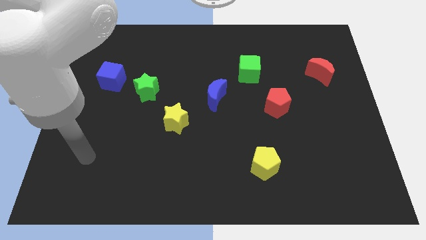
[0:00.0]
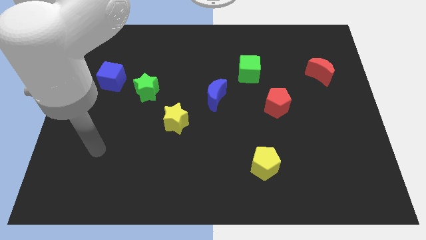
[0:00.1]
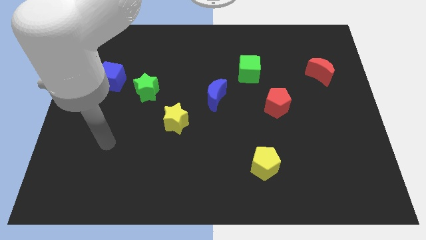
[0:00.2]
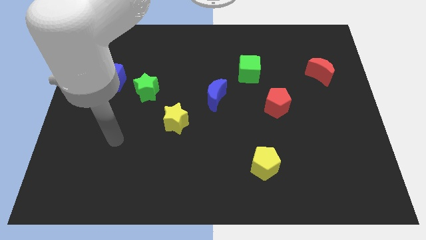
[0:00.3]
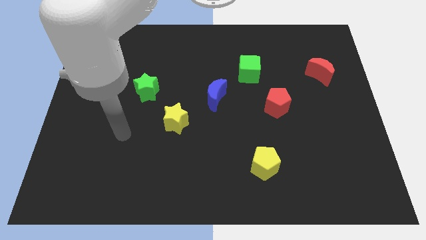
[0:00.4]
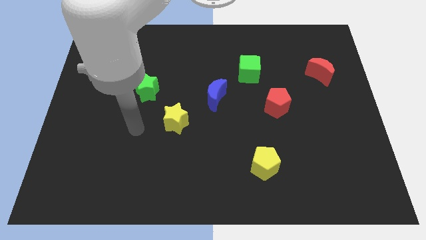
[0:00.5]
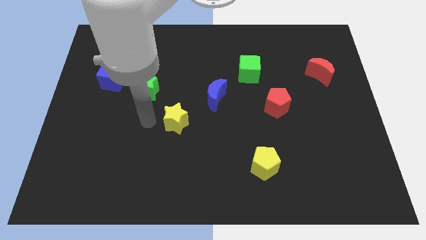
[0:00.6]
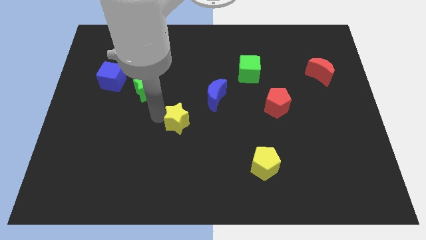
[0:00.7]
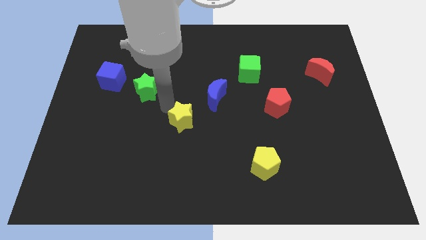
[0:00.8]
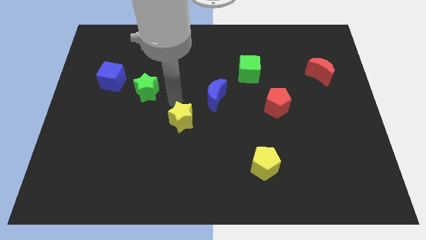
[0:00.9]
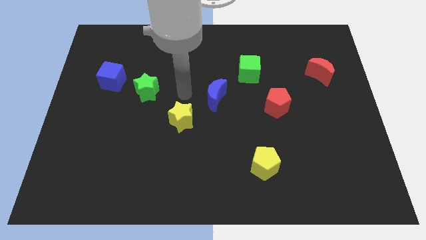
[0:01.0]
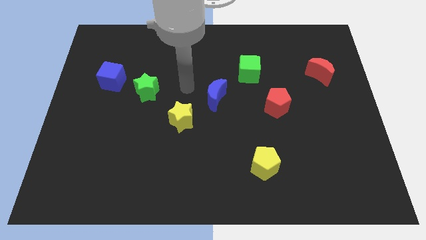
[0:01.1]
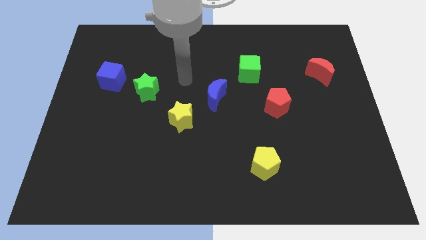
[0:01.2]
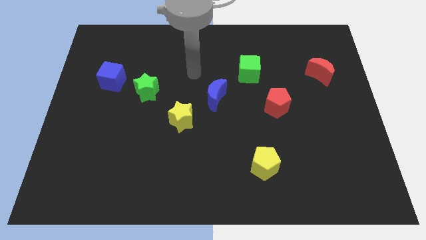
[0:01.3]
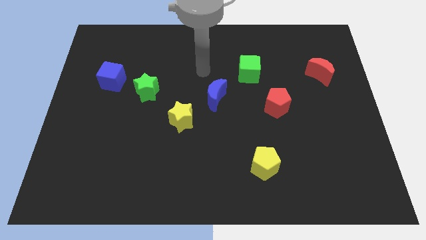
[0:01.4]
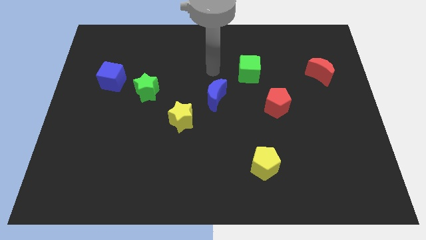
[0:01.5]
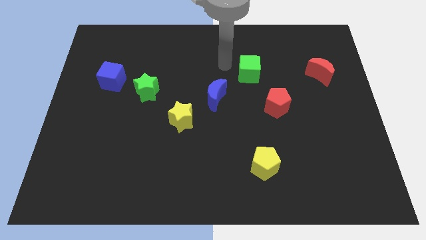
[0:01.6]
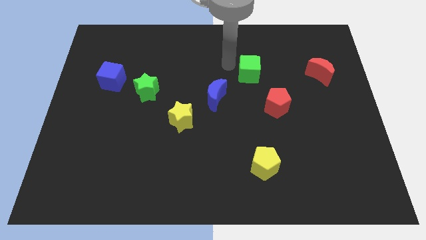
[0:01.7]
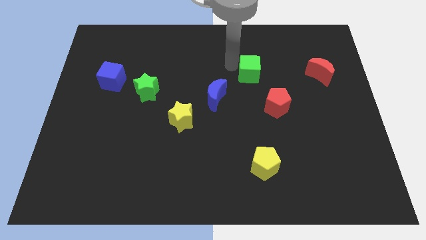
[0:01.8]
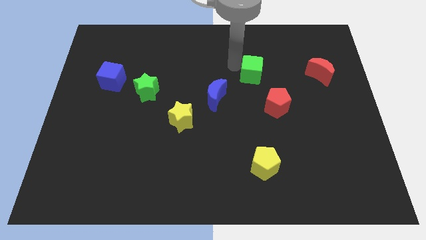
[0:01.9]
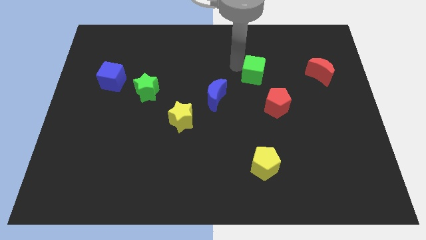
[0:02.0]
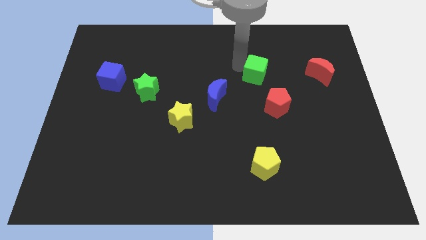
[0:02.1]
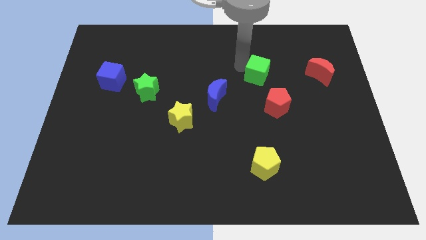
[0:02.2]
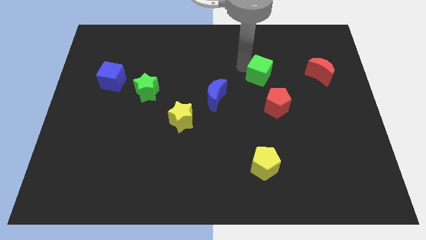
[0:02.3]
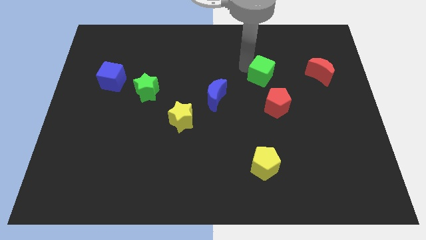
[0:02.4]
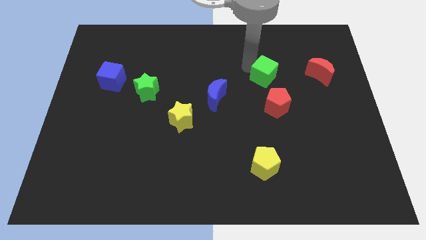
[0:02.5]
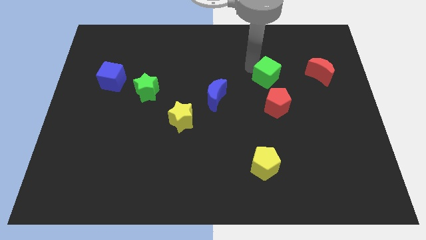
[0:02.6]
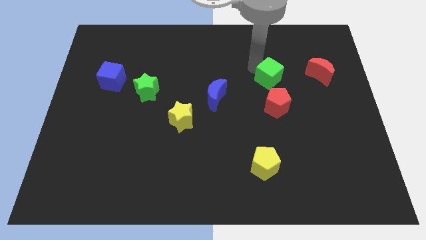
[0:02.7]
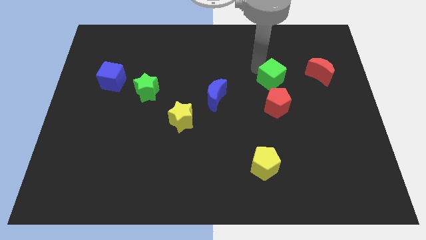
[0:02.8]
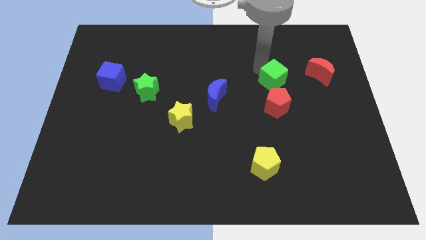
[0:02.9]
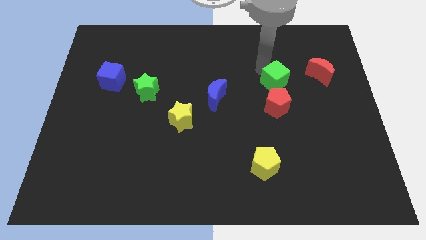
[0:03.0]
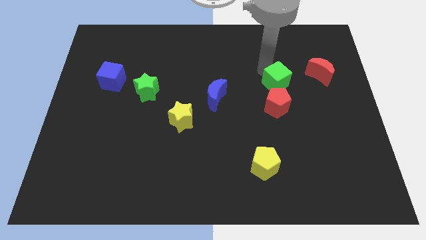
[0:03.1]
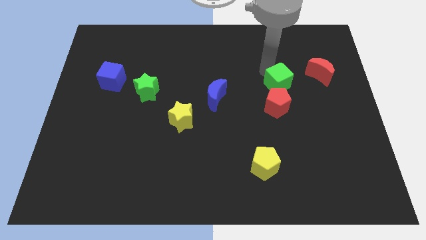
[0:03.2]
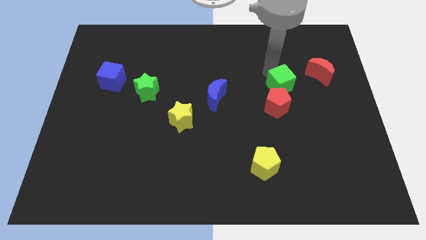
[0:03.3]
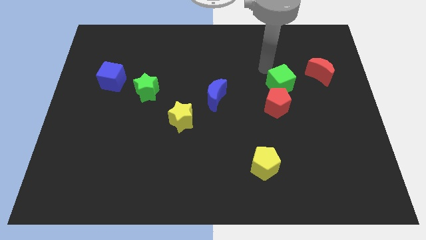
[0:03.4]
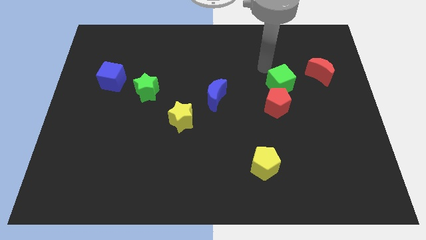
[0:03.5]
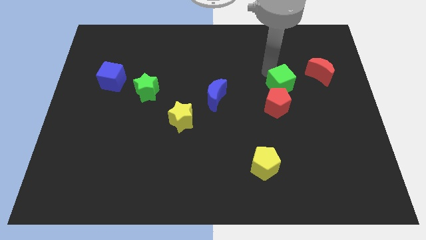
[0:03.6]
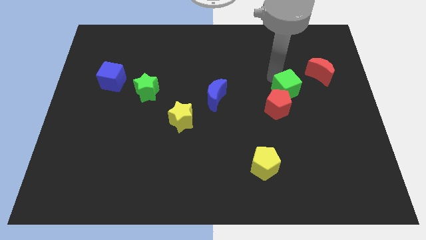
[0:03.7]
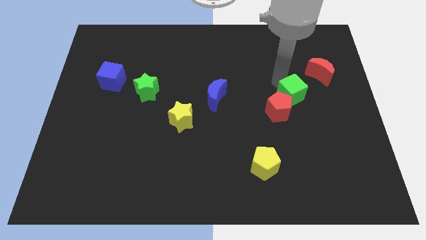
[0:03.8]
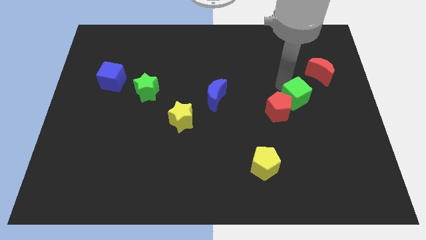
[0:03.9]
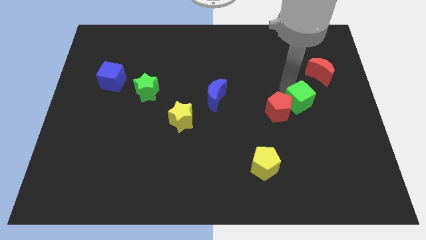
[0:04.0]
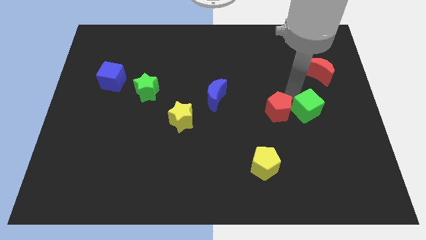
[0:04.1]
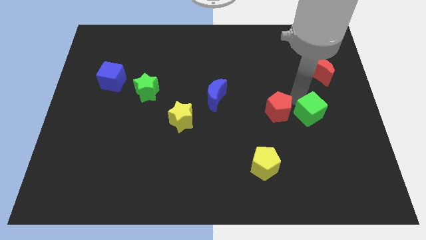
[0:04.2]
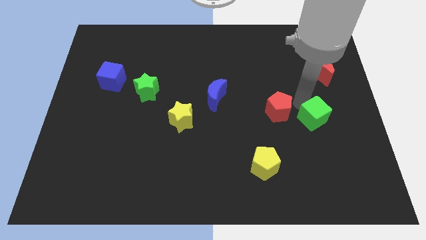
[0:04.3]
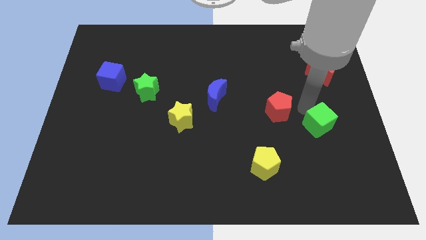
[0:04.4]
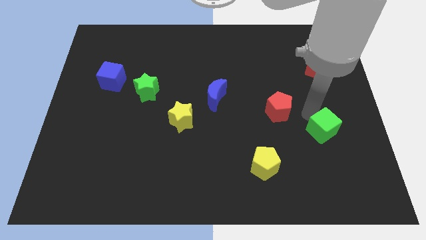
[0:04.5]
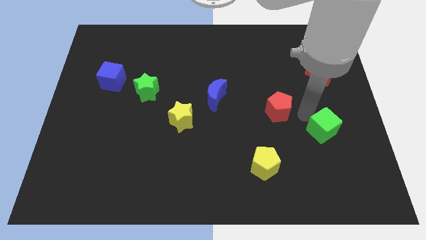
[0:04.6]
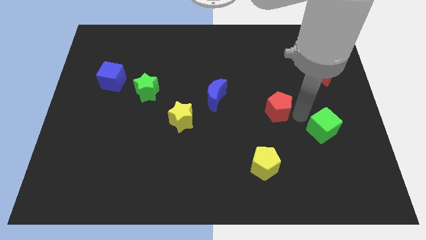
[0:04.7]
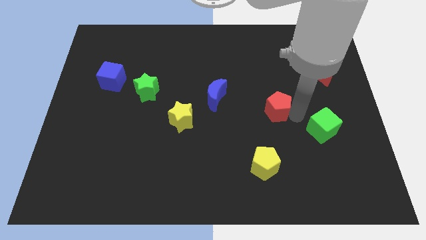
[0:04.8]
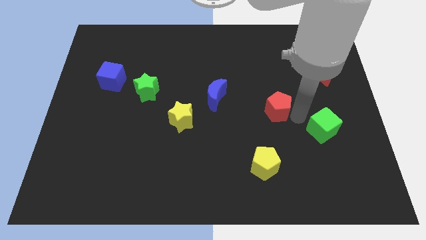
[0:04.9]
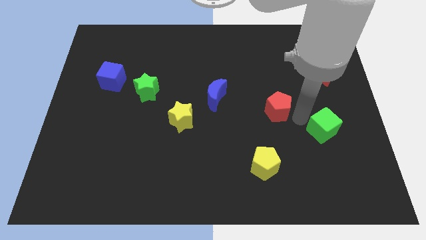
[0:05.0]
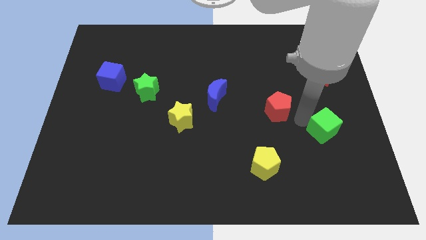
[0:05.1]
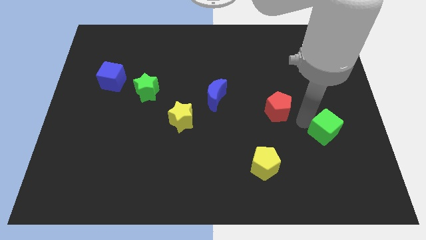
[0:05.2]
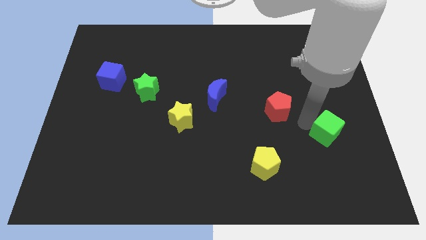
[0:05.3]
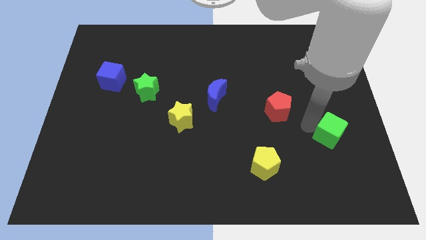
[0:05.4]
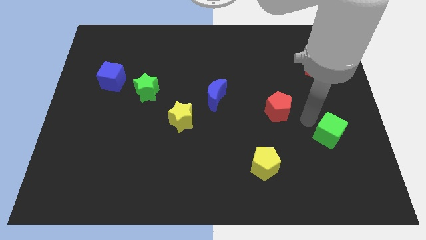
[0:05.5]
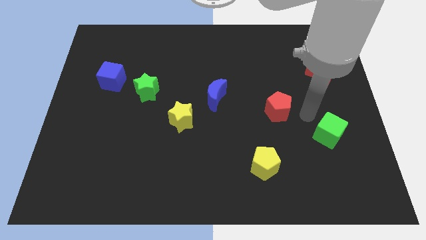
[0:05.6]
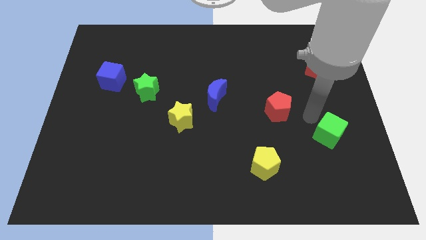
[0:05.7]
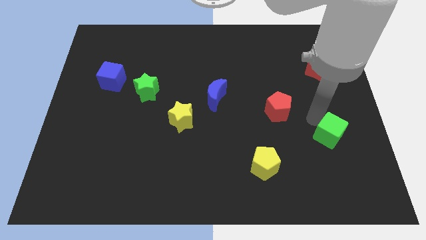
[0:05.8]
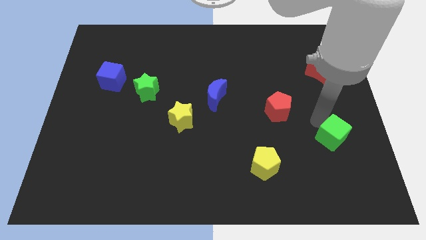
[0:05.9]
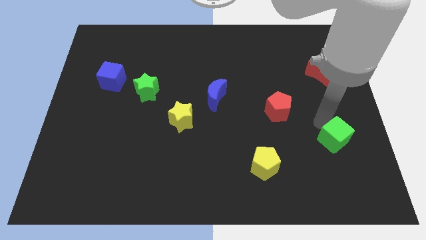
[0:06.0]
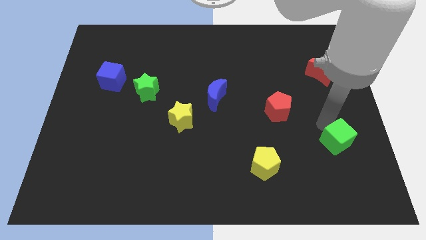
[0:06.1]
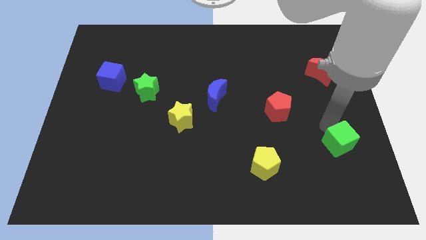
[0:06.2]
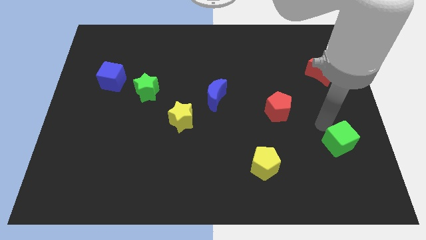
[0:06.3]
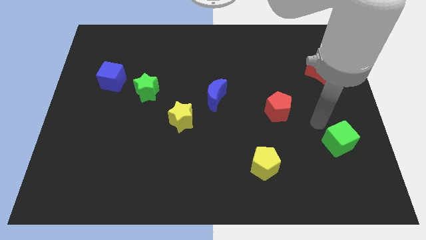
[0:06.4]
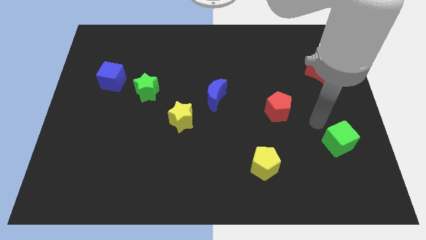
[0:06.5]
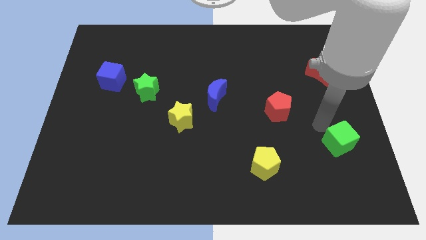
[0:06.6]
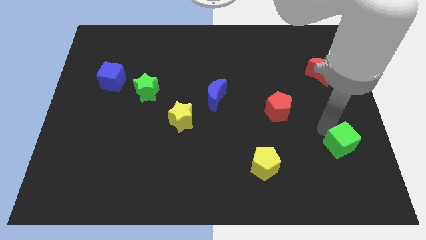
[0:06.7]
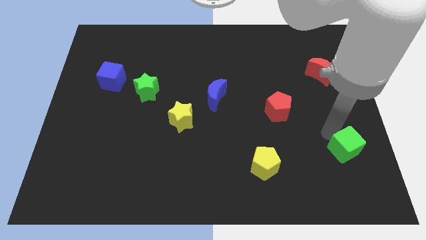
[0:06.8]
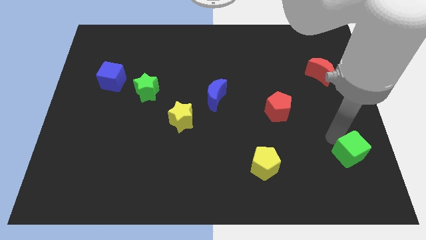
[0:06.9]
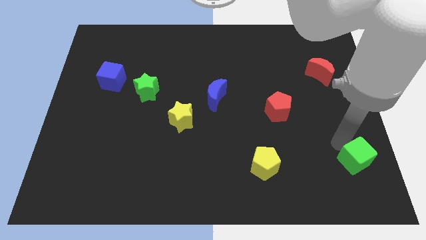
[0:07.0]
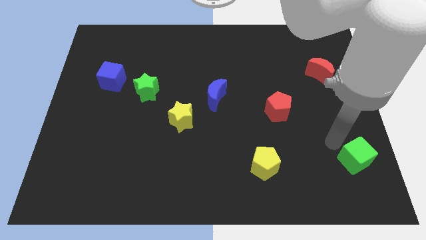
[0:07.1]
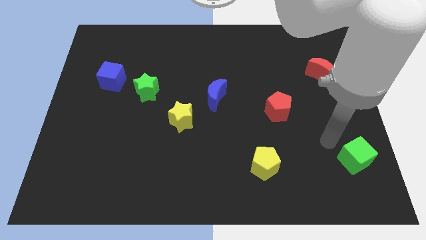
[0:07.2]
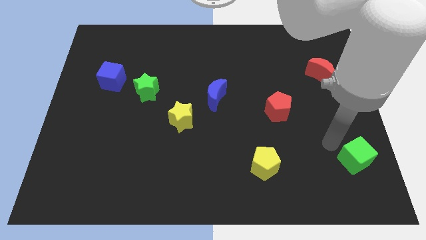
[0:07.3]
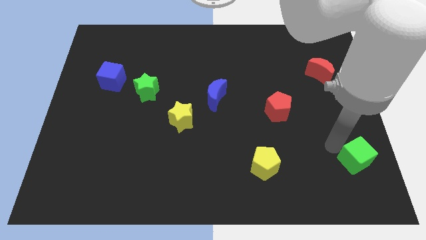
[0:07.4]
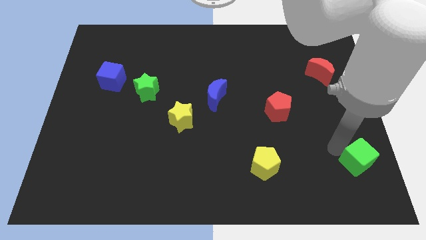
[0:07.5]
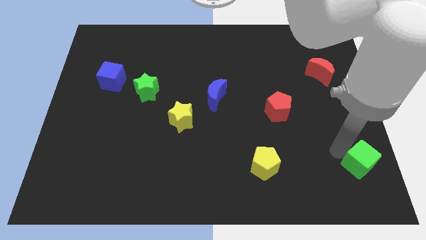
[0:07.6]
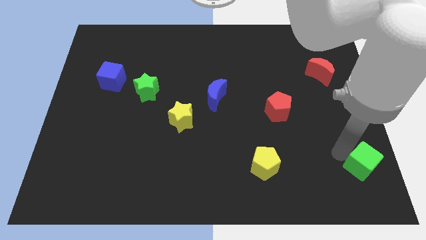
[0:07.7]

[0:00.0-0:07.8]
move the green cube to the bottom right of the board
